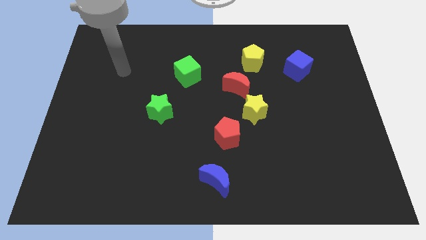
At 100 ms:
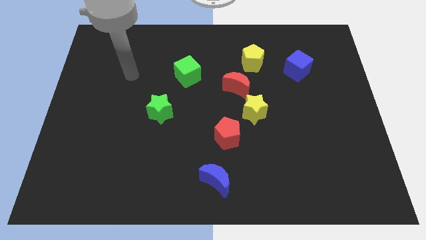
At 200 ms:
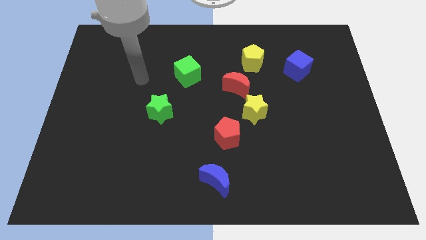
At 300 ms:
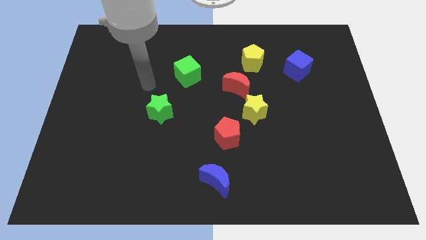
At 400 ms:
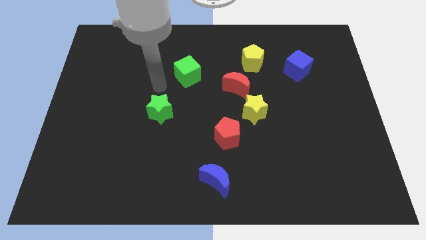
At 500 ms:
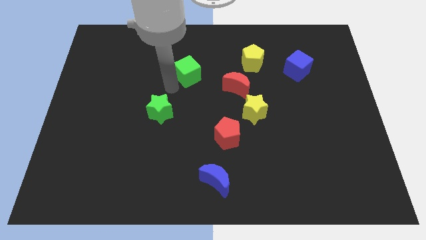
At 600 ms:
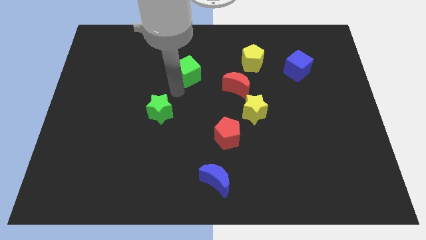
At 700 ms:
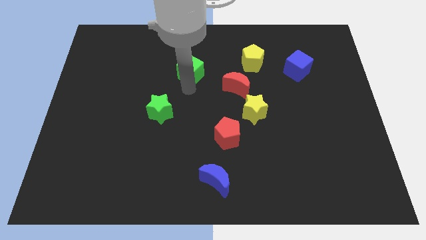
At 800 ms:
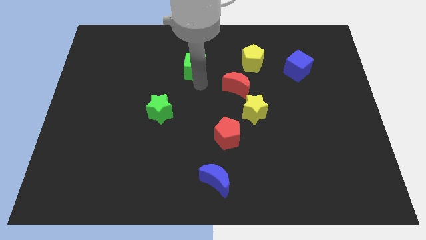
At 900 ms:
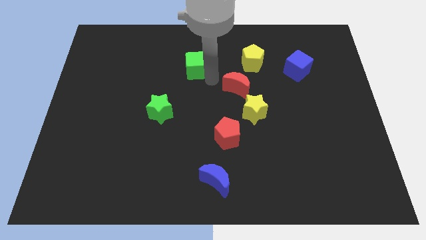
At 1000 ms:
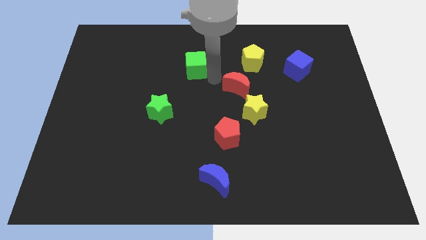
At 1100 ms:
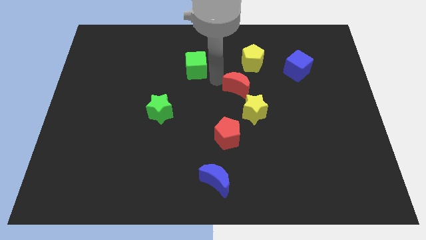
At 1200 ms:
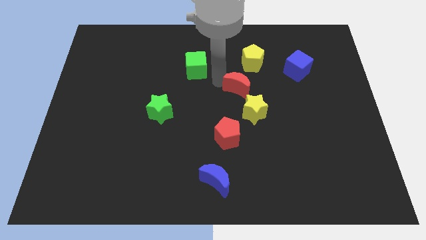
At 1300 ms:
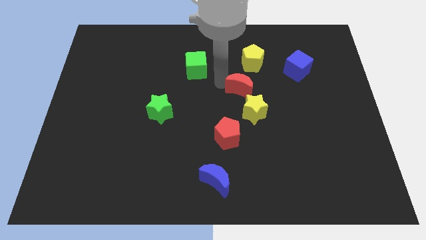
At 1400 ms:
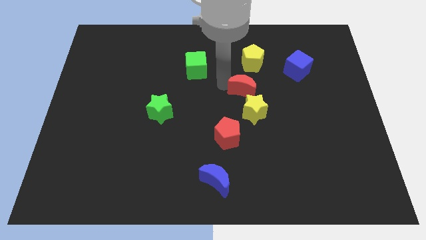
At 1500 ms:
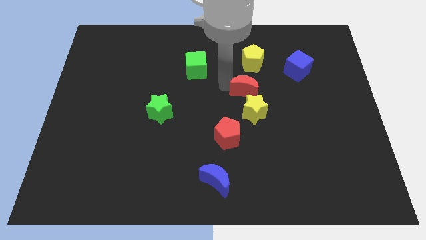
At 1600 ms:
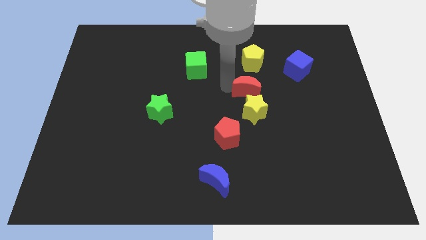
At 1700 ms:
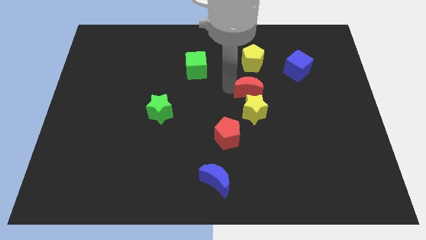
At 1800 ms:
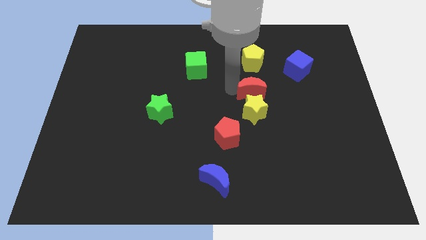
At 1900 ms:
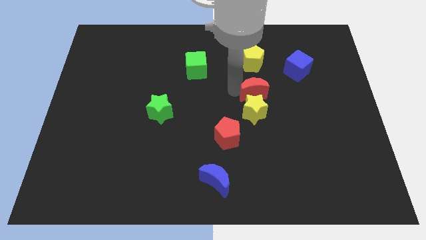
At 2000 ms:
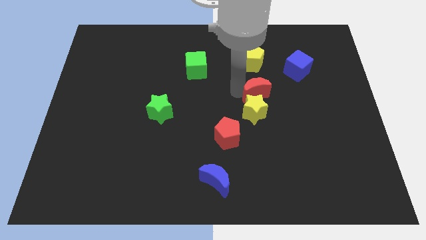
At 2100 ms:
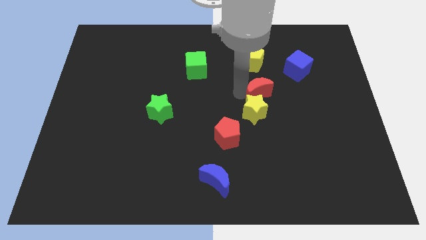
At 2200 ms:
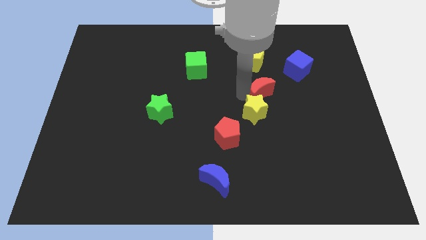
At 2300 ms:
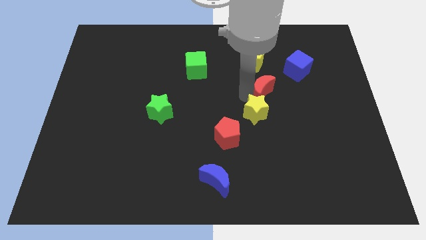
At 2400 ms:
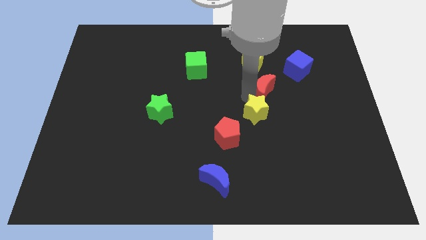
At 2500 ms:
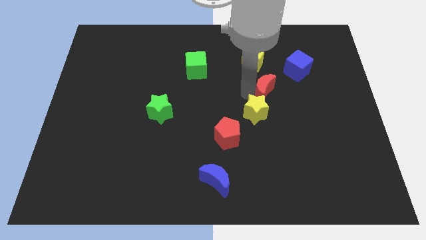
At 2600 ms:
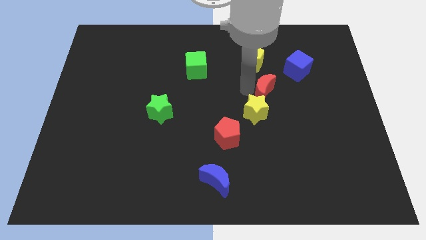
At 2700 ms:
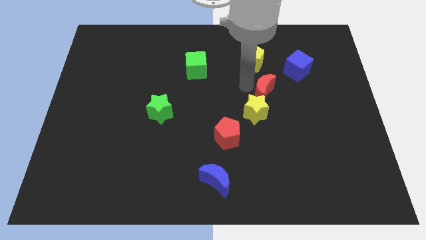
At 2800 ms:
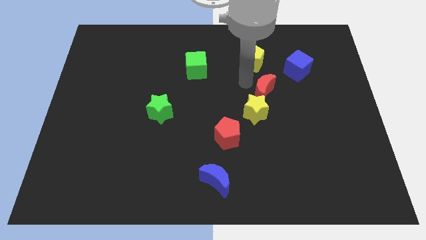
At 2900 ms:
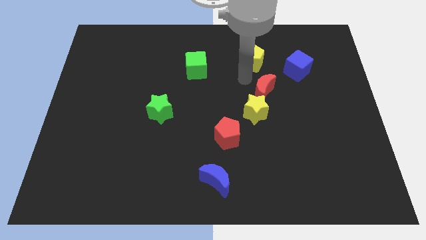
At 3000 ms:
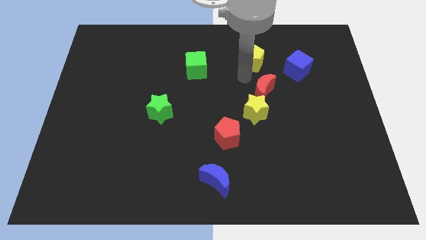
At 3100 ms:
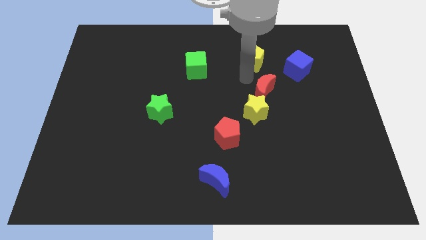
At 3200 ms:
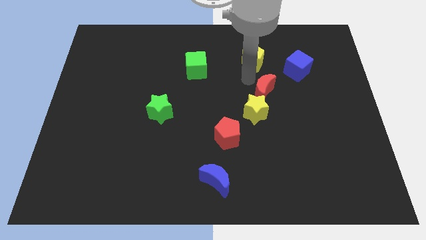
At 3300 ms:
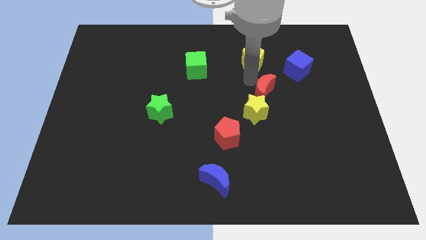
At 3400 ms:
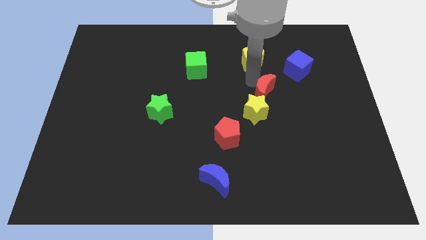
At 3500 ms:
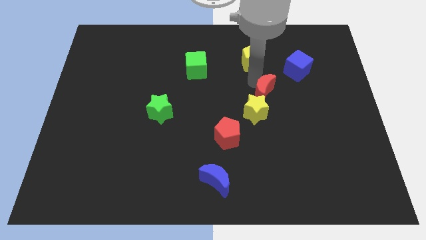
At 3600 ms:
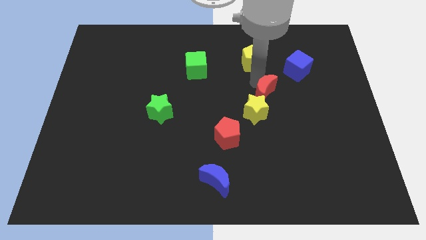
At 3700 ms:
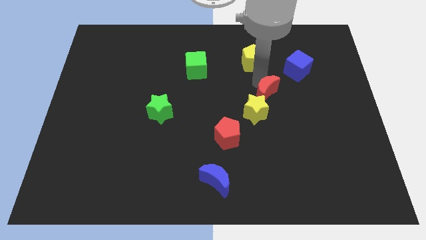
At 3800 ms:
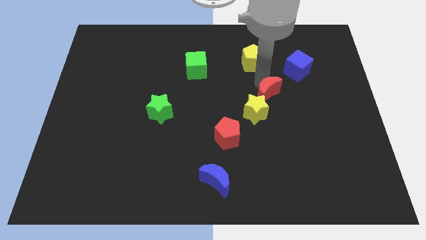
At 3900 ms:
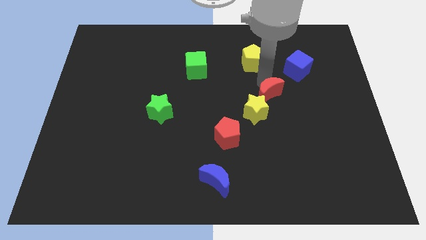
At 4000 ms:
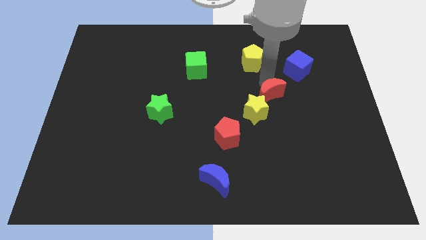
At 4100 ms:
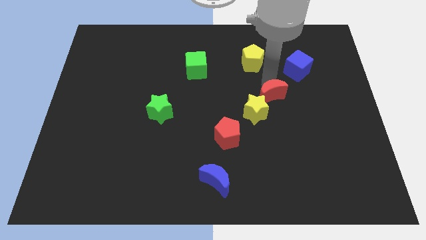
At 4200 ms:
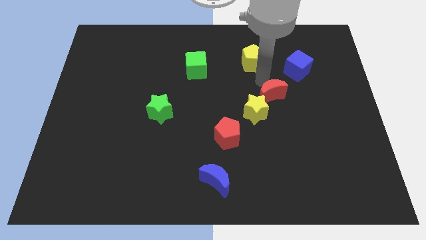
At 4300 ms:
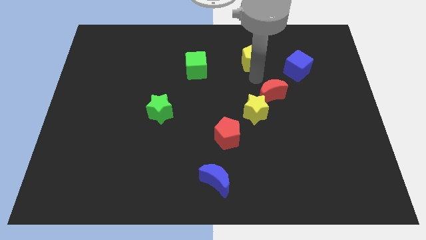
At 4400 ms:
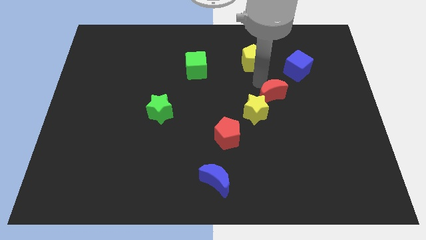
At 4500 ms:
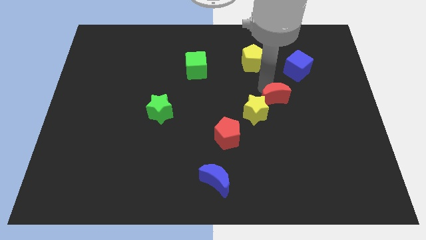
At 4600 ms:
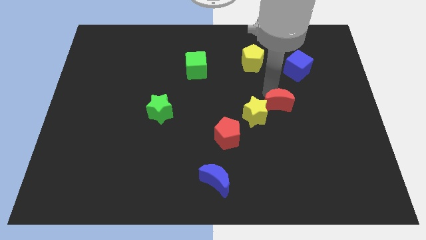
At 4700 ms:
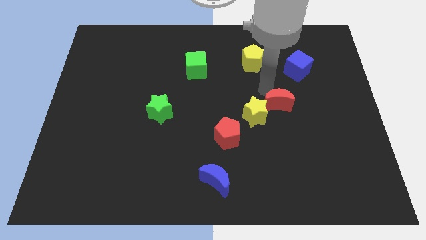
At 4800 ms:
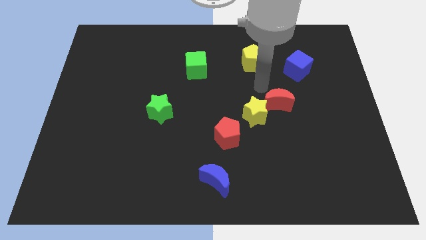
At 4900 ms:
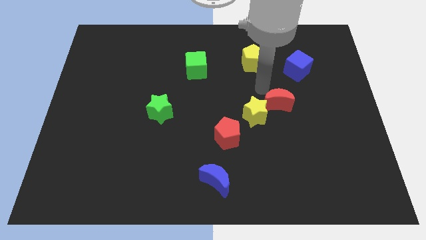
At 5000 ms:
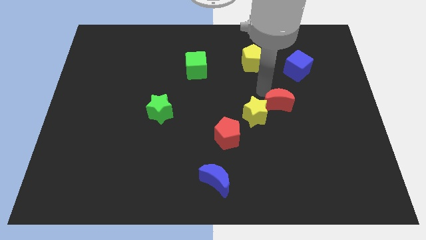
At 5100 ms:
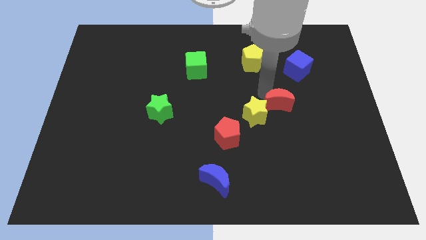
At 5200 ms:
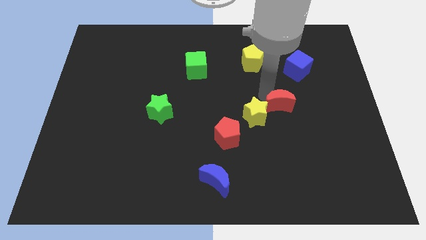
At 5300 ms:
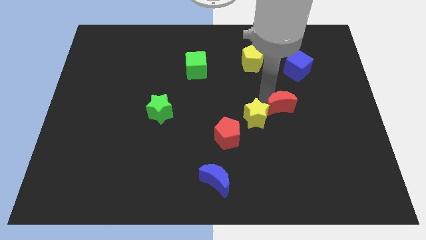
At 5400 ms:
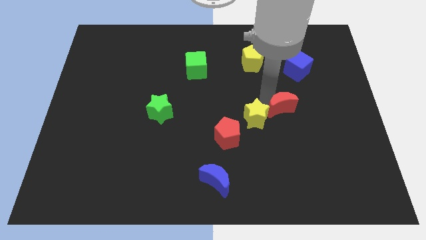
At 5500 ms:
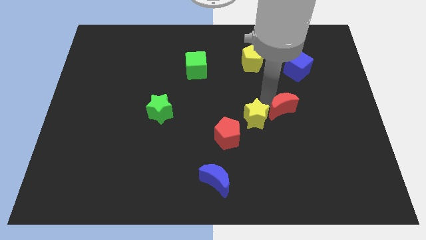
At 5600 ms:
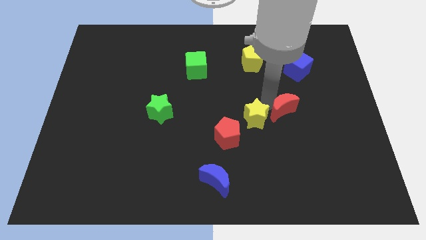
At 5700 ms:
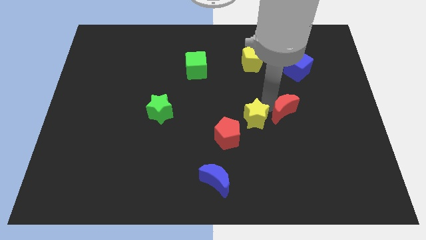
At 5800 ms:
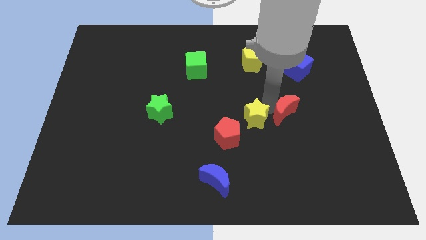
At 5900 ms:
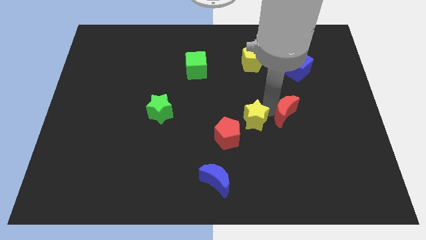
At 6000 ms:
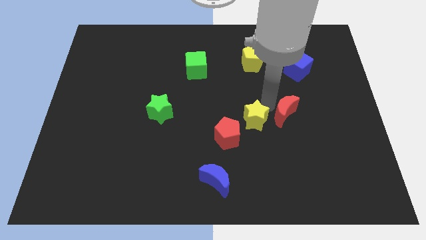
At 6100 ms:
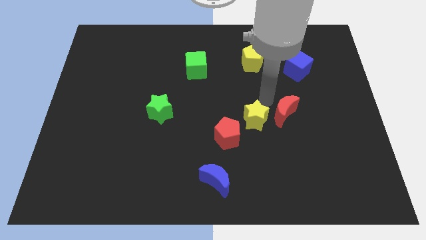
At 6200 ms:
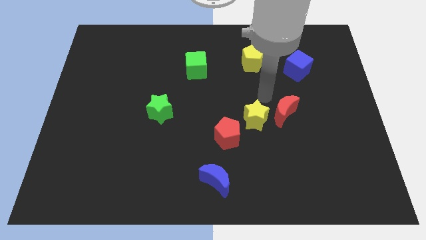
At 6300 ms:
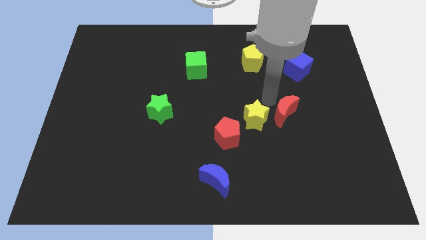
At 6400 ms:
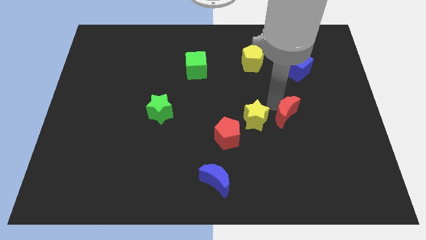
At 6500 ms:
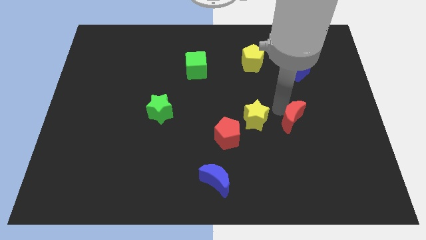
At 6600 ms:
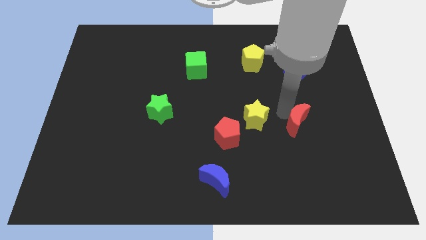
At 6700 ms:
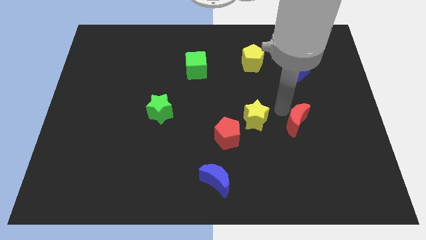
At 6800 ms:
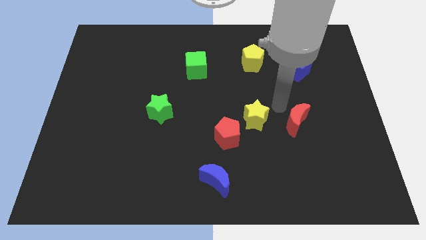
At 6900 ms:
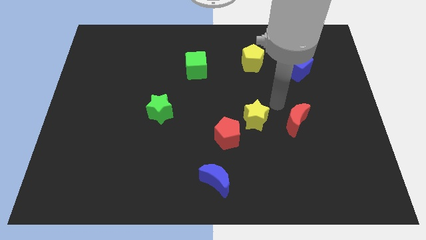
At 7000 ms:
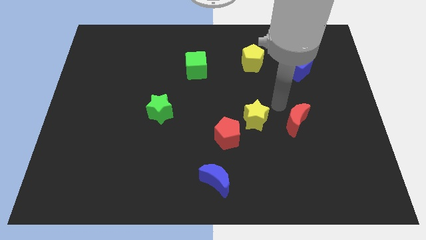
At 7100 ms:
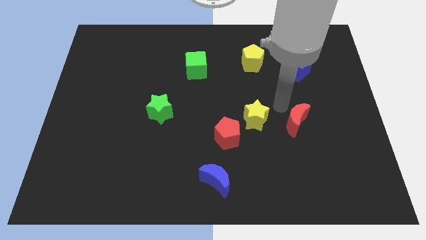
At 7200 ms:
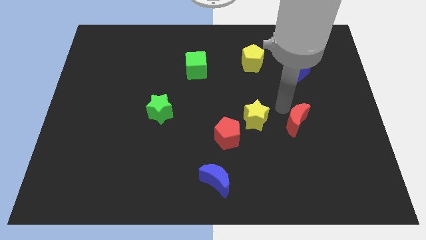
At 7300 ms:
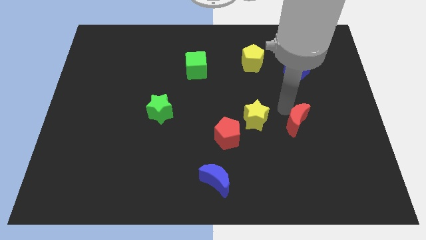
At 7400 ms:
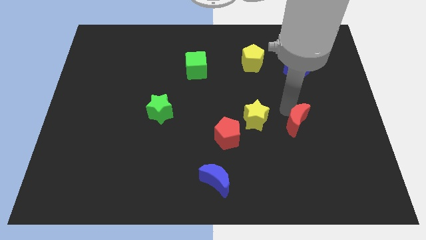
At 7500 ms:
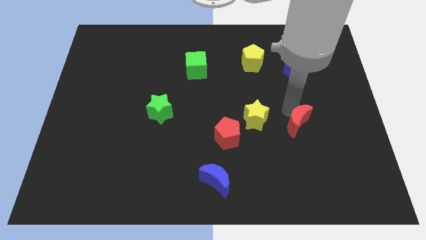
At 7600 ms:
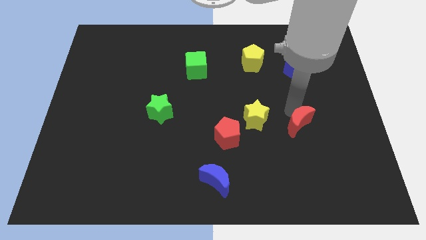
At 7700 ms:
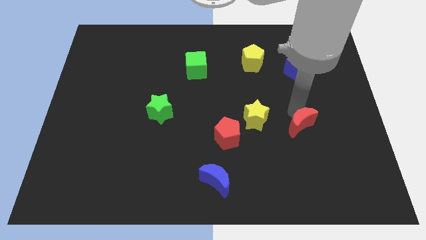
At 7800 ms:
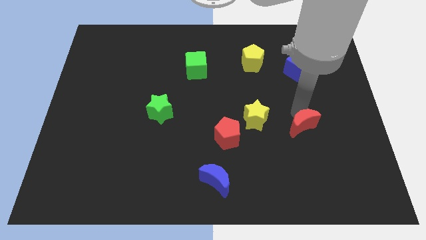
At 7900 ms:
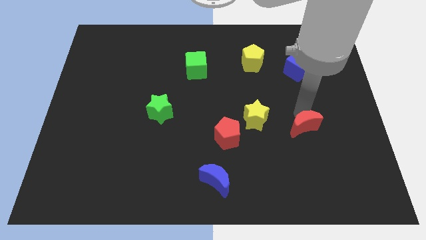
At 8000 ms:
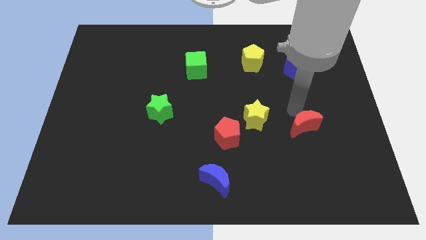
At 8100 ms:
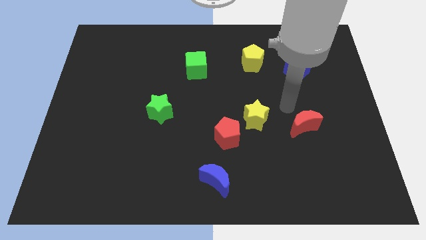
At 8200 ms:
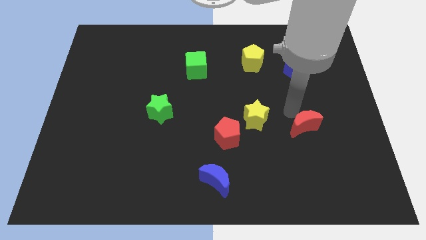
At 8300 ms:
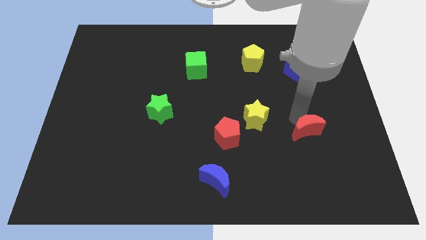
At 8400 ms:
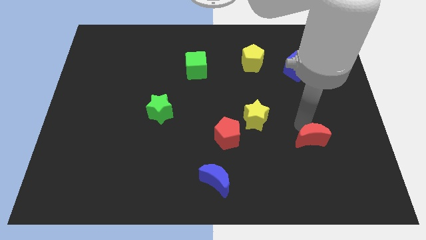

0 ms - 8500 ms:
slide the red moon down and to the right

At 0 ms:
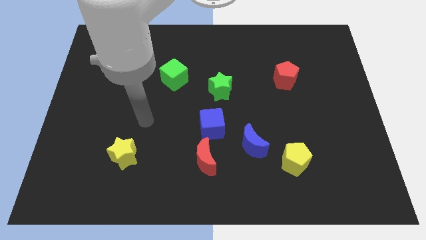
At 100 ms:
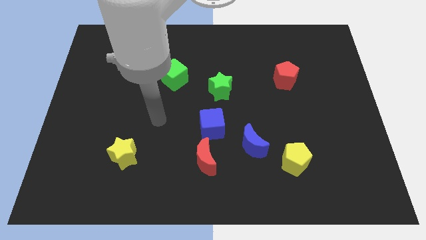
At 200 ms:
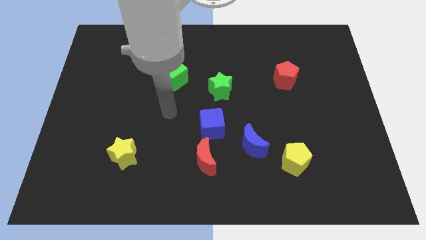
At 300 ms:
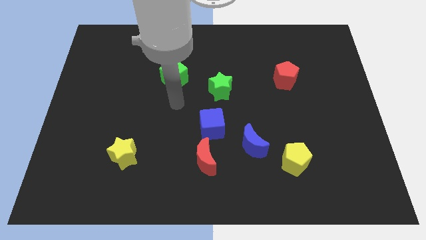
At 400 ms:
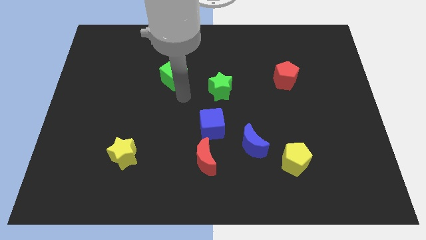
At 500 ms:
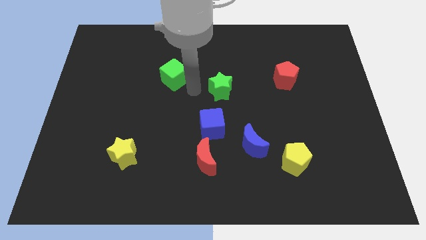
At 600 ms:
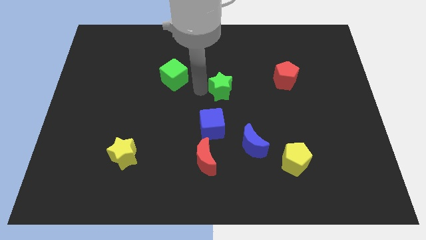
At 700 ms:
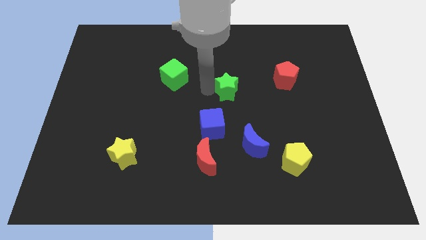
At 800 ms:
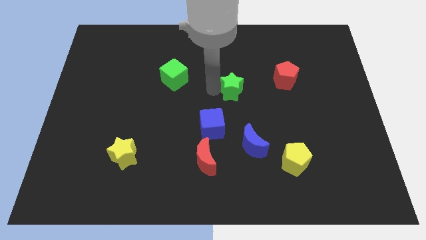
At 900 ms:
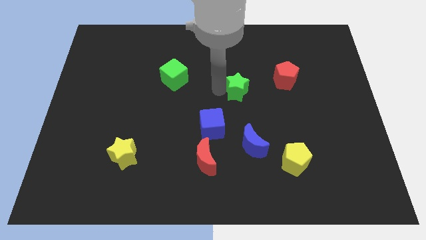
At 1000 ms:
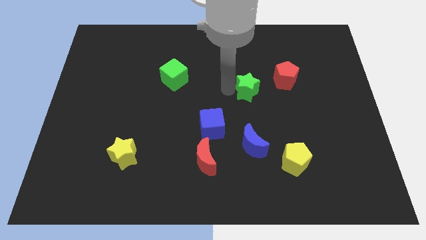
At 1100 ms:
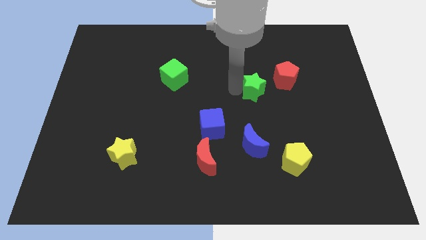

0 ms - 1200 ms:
push the green star right somewhat
